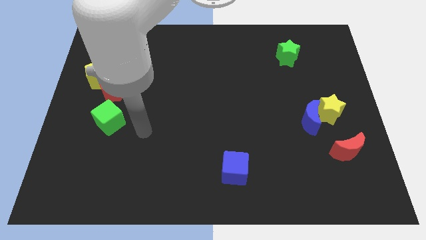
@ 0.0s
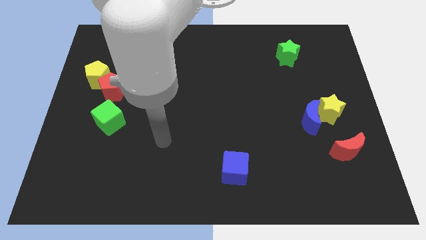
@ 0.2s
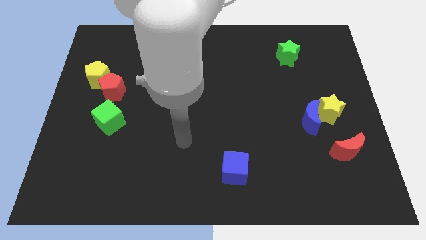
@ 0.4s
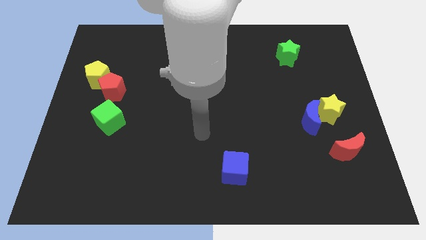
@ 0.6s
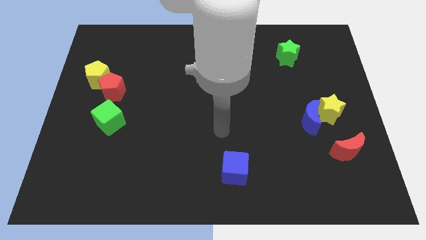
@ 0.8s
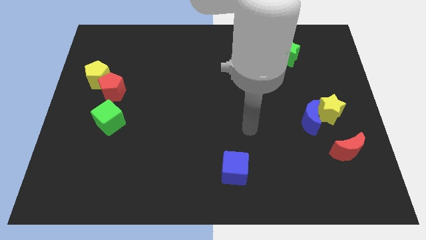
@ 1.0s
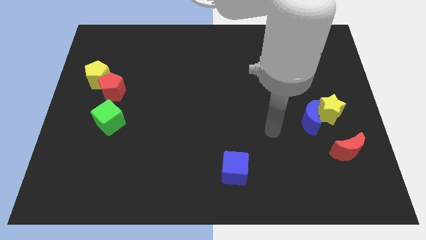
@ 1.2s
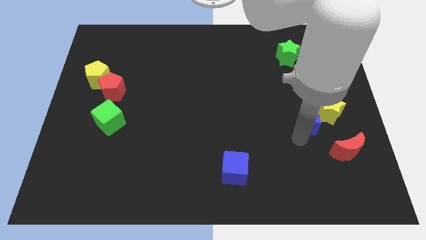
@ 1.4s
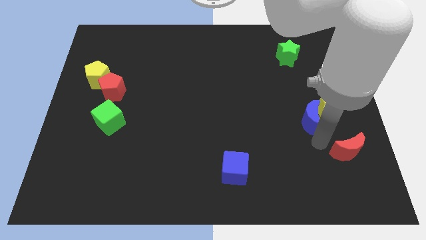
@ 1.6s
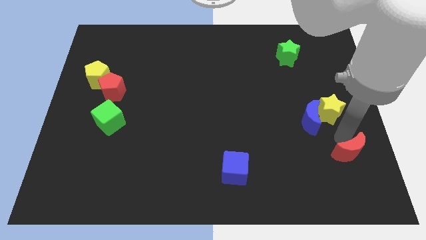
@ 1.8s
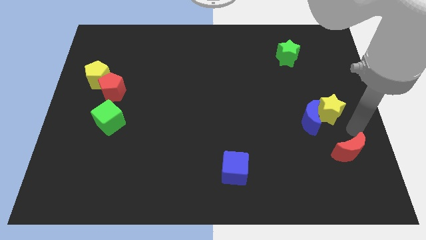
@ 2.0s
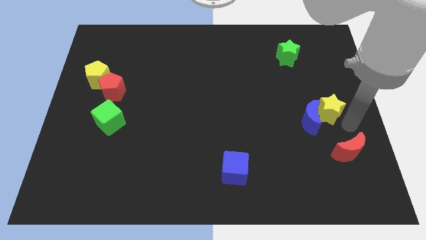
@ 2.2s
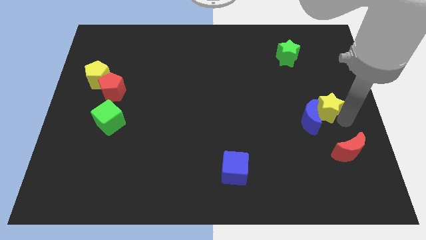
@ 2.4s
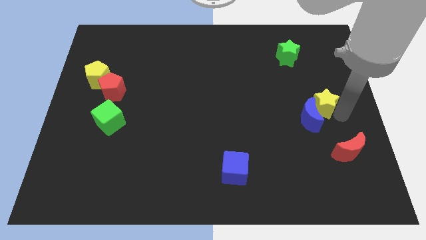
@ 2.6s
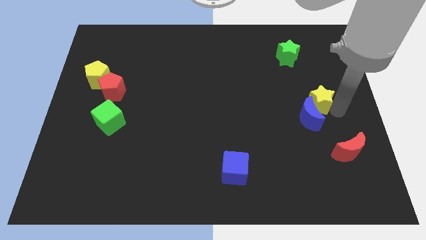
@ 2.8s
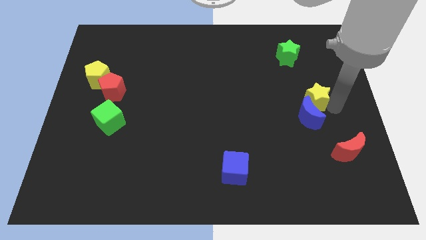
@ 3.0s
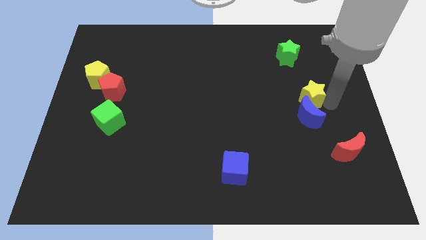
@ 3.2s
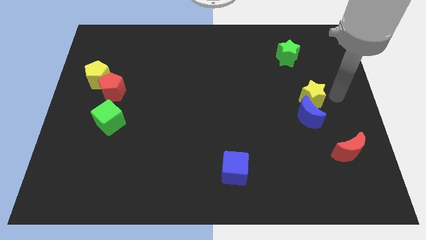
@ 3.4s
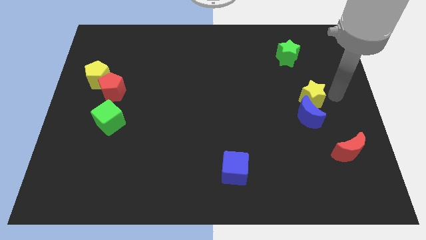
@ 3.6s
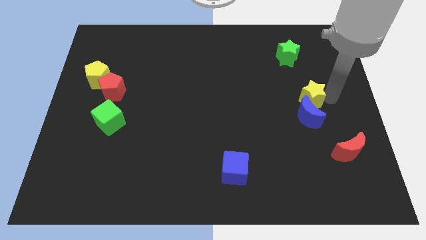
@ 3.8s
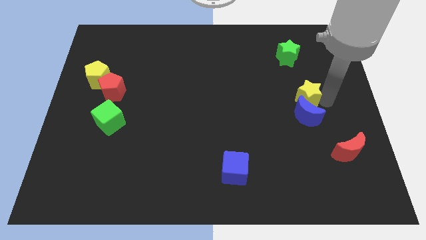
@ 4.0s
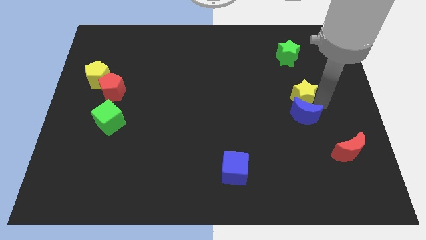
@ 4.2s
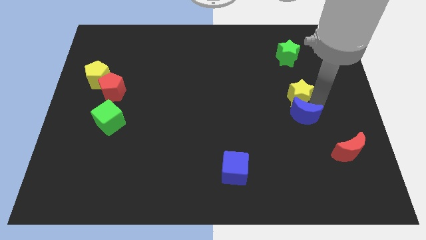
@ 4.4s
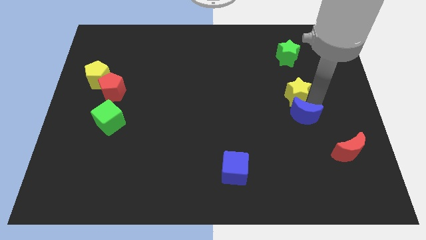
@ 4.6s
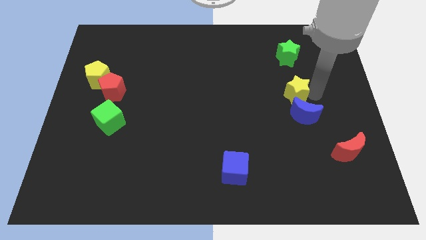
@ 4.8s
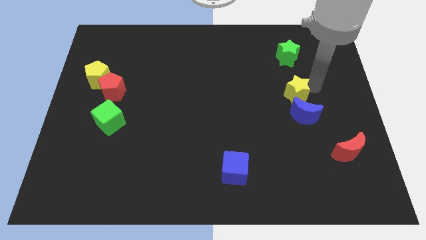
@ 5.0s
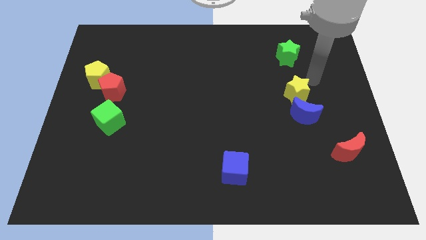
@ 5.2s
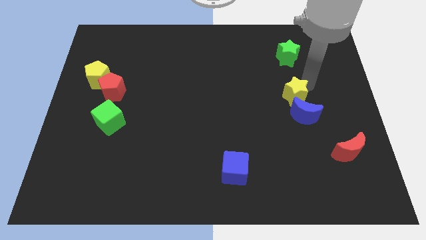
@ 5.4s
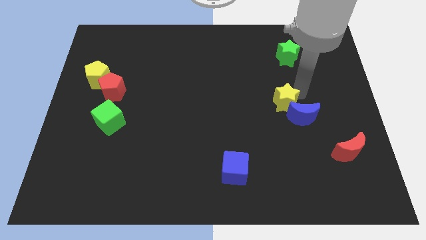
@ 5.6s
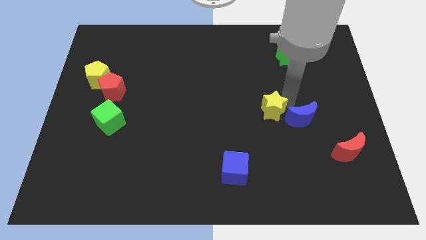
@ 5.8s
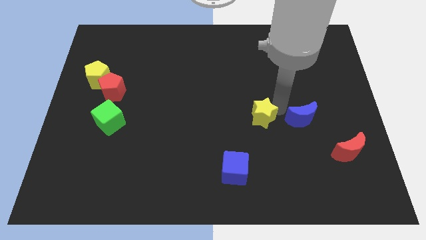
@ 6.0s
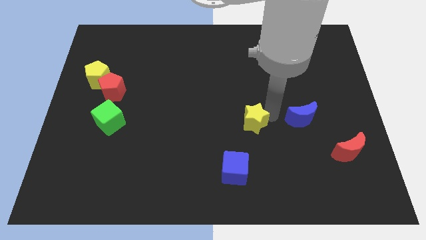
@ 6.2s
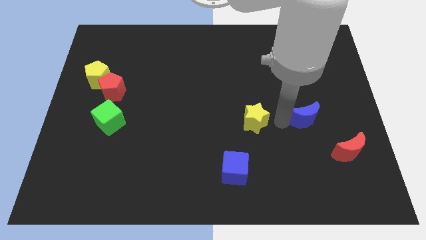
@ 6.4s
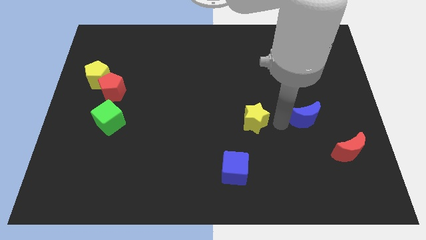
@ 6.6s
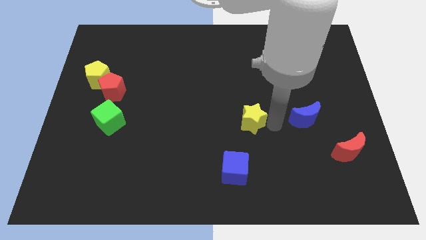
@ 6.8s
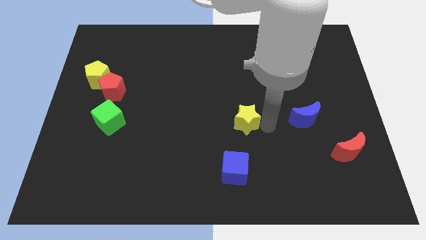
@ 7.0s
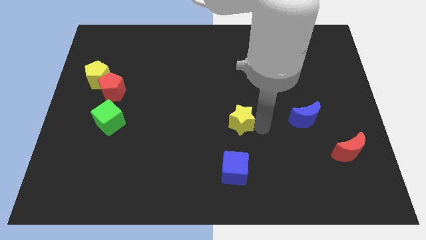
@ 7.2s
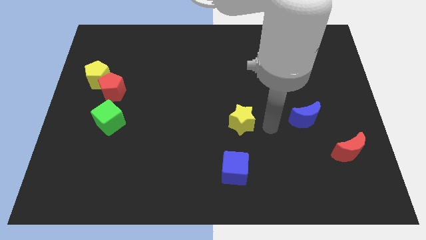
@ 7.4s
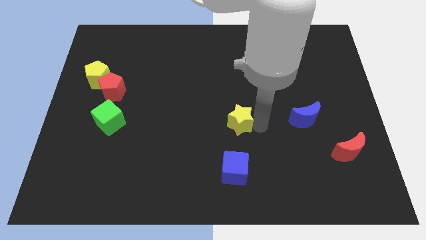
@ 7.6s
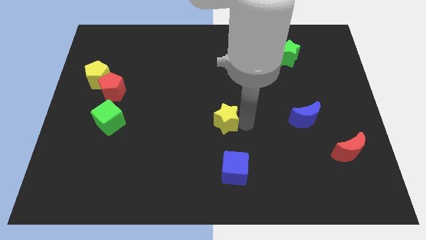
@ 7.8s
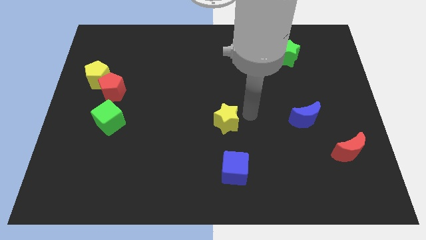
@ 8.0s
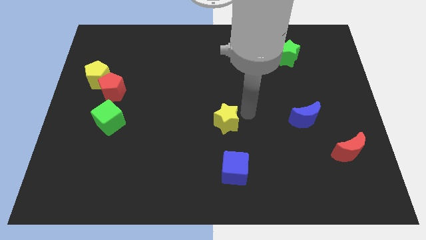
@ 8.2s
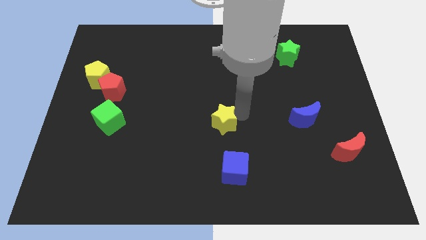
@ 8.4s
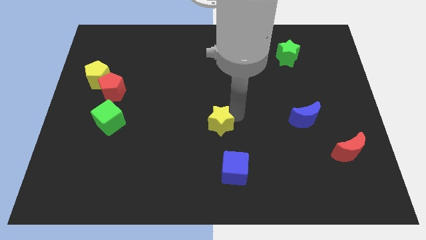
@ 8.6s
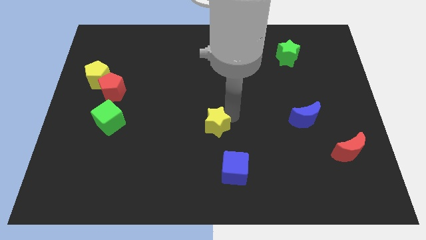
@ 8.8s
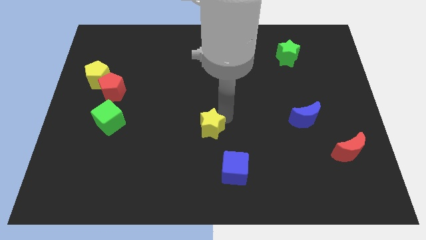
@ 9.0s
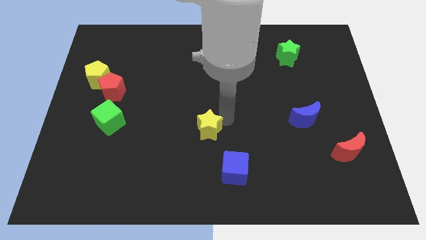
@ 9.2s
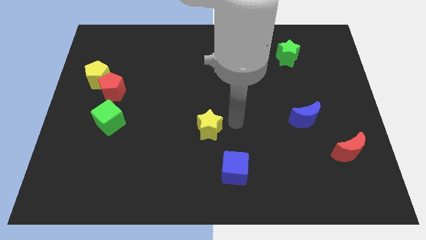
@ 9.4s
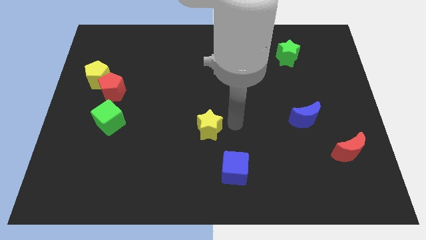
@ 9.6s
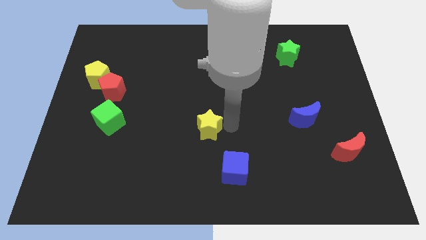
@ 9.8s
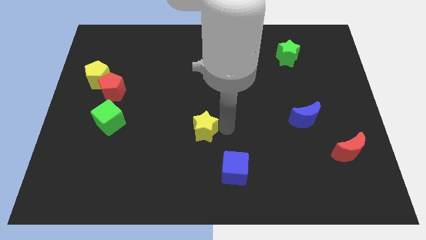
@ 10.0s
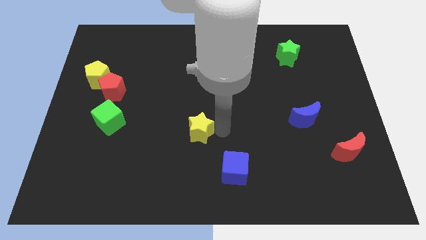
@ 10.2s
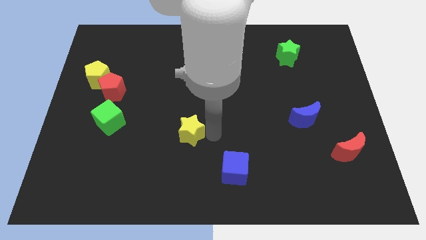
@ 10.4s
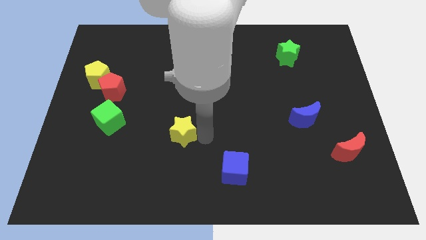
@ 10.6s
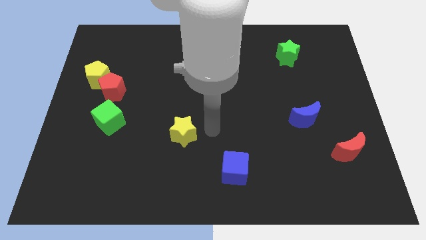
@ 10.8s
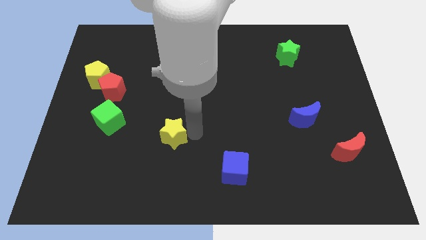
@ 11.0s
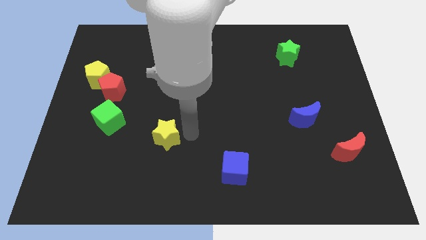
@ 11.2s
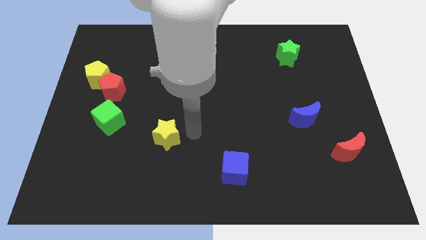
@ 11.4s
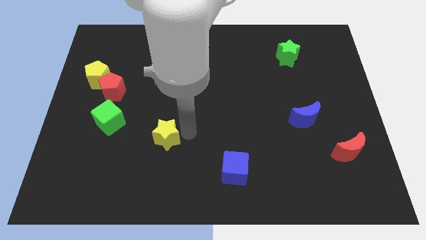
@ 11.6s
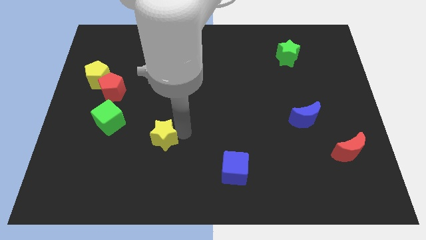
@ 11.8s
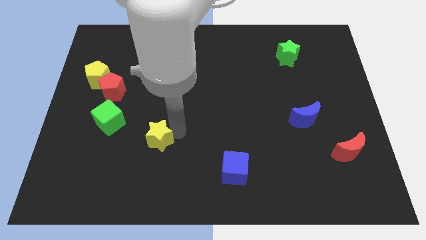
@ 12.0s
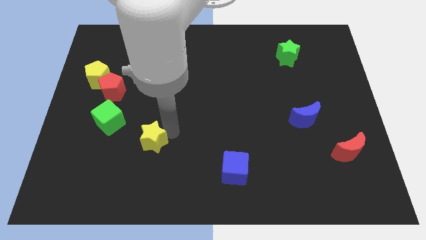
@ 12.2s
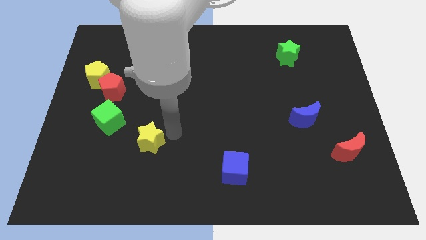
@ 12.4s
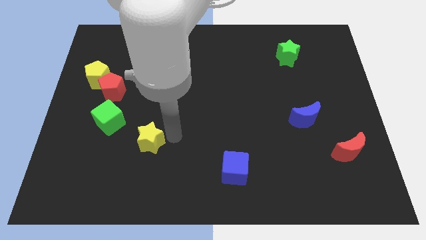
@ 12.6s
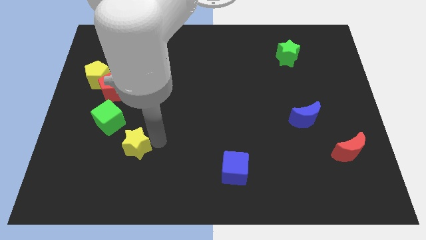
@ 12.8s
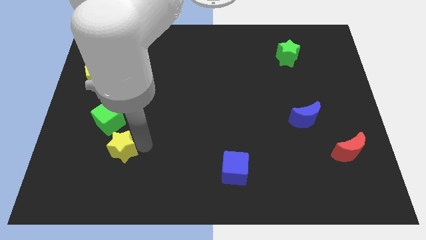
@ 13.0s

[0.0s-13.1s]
put the yellow star below the green cube
